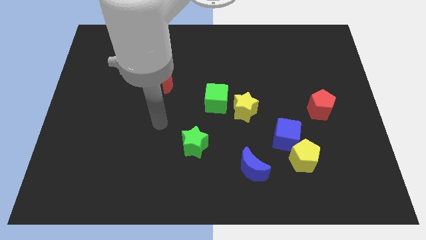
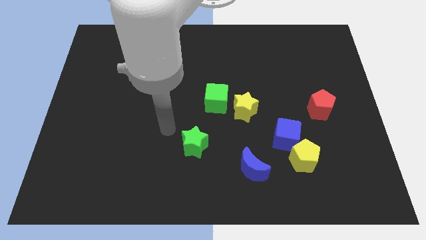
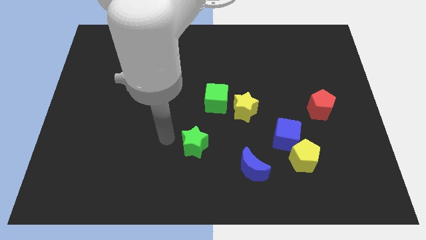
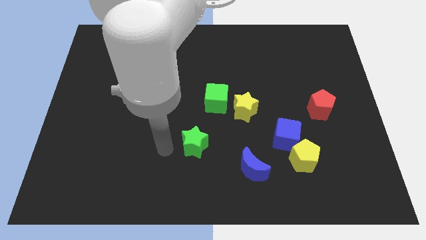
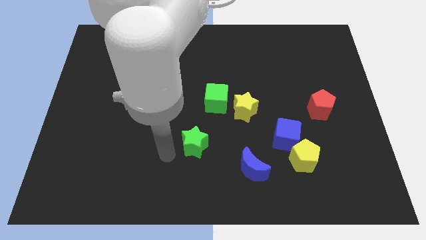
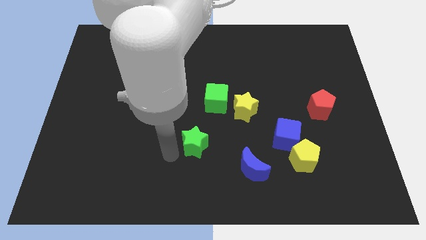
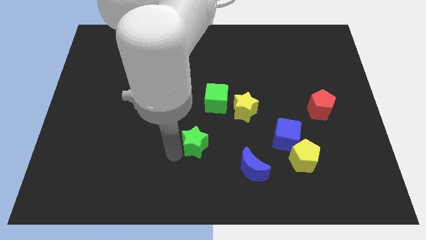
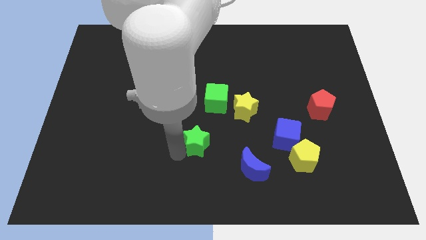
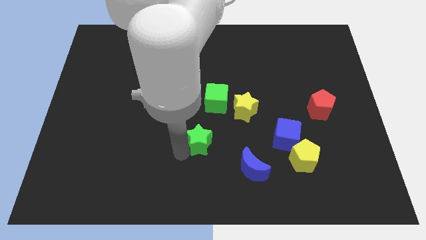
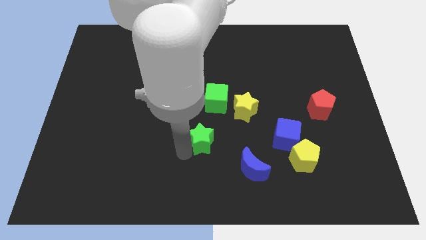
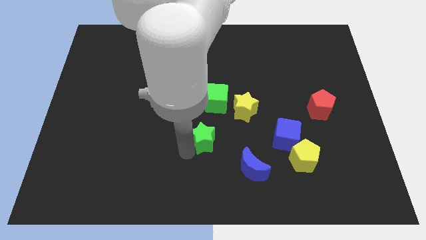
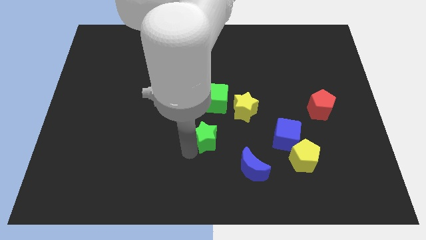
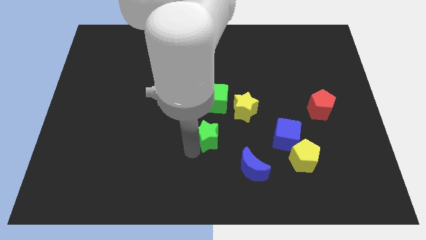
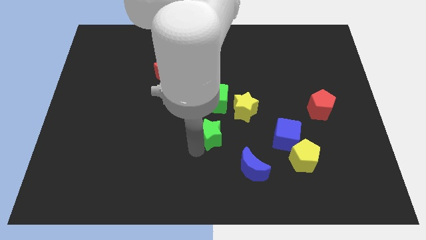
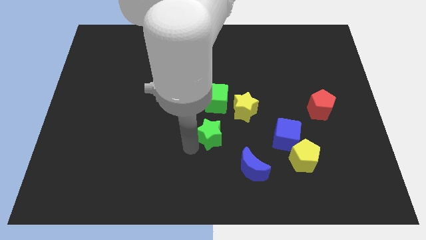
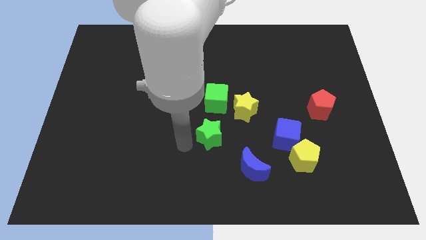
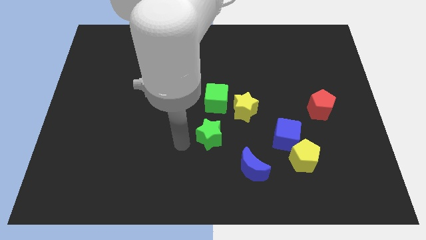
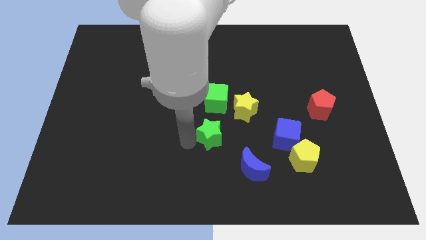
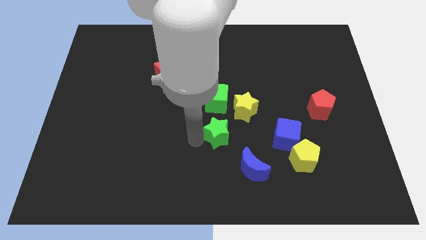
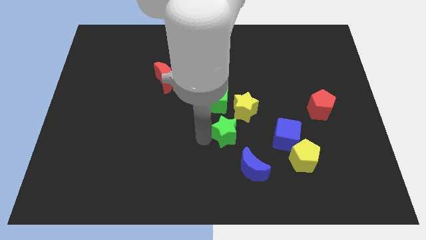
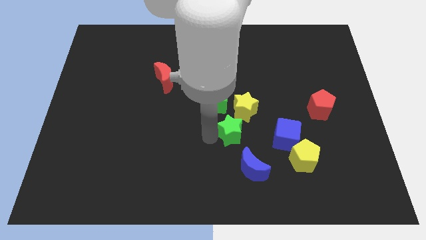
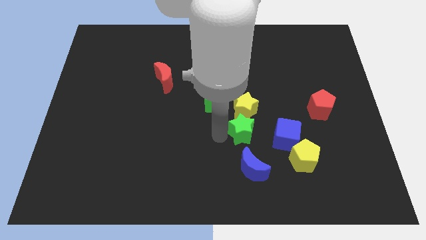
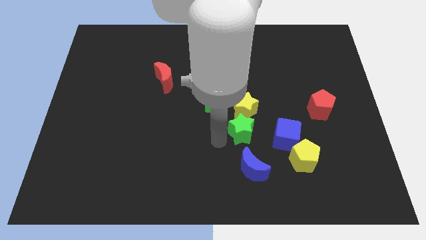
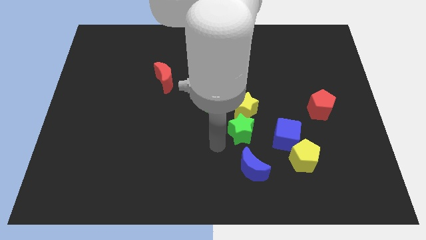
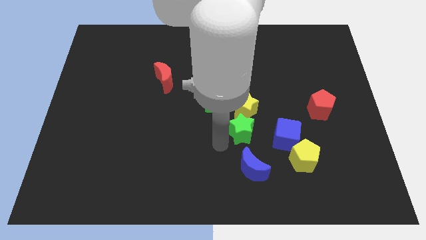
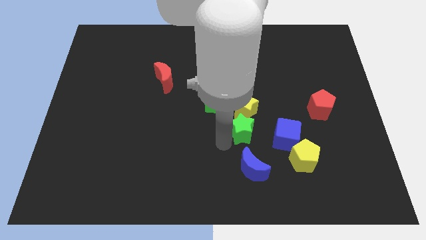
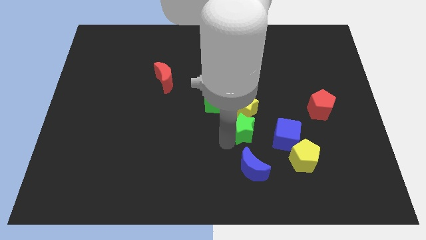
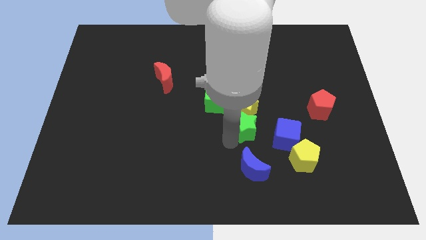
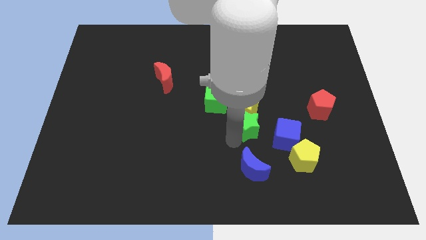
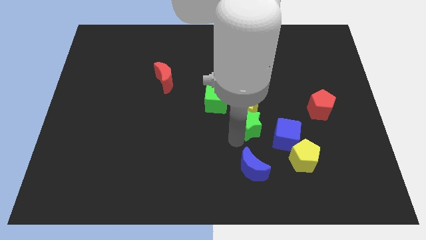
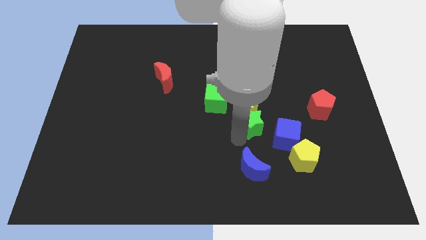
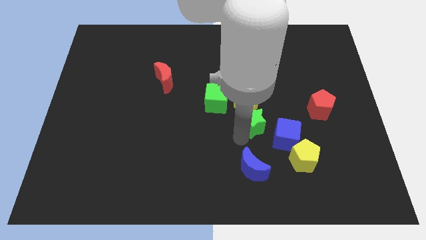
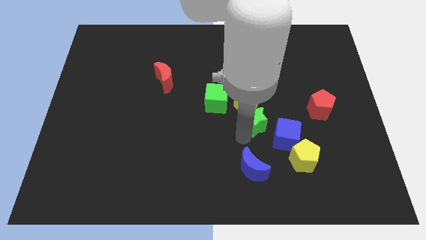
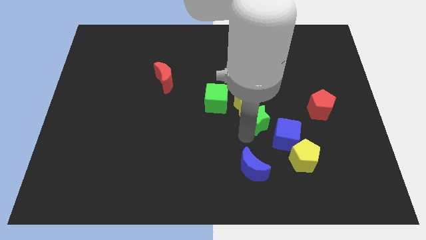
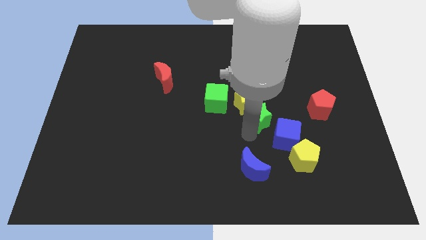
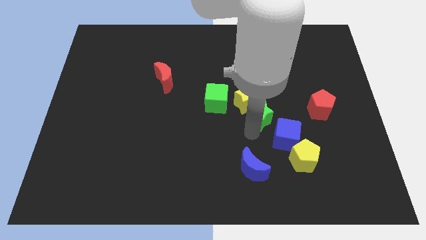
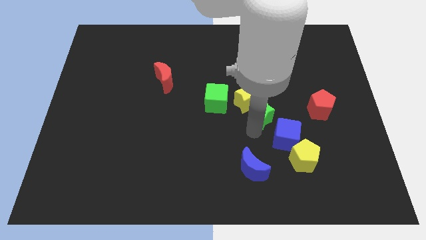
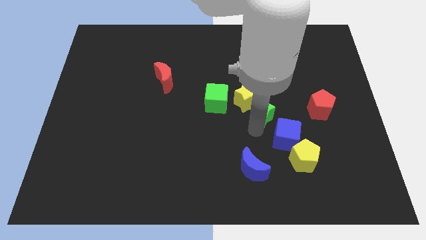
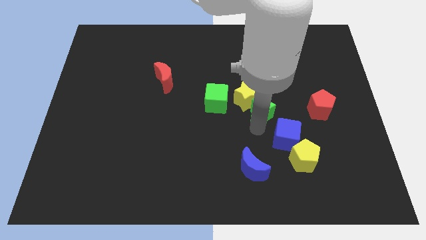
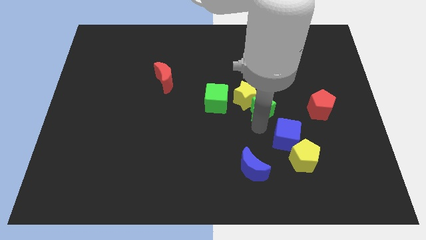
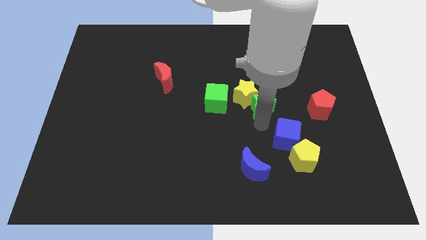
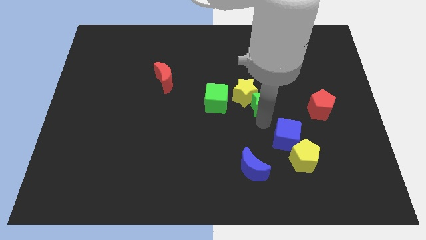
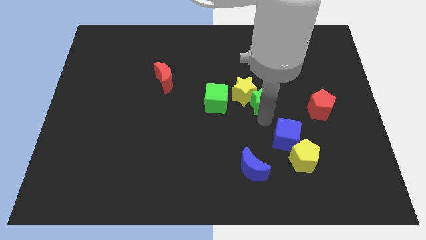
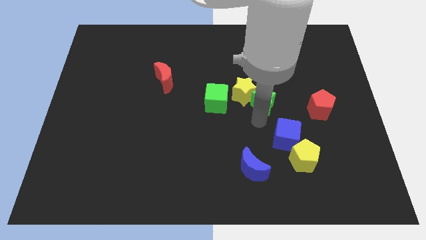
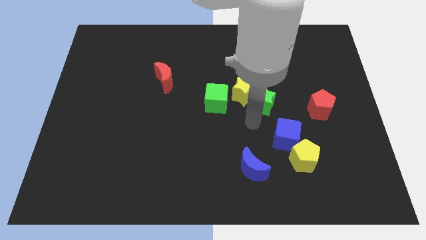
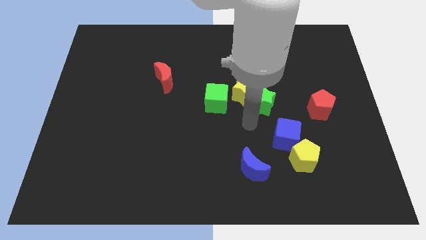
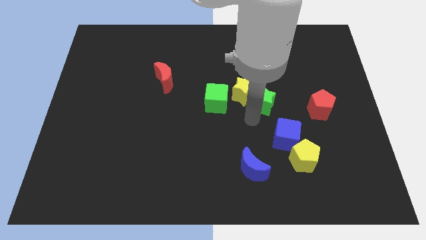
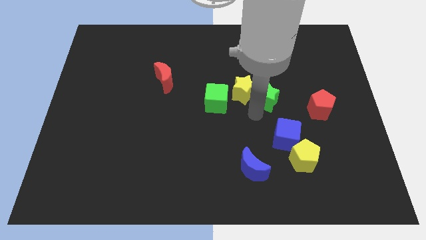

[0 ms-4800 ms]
slide the green star diagonally up and to the right

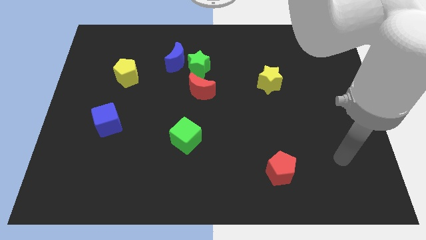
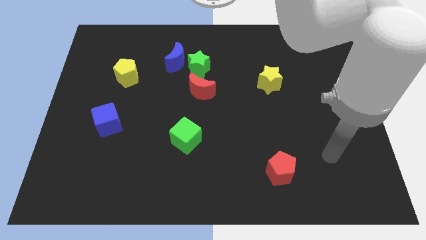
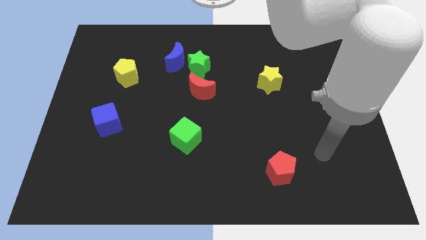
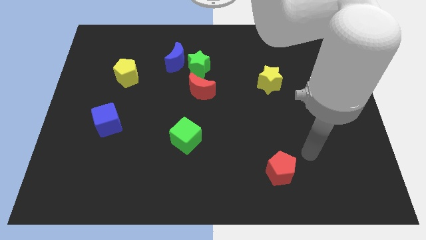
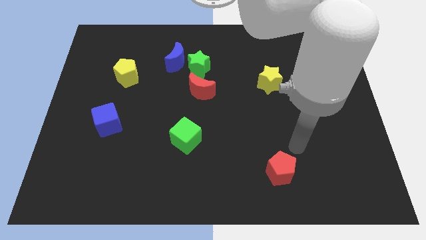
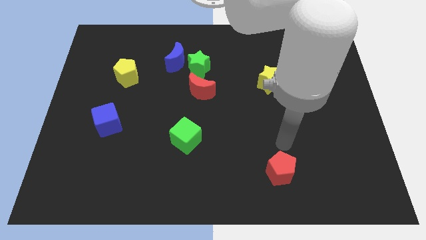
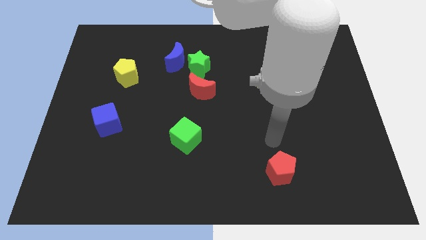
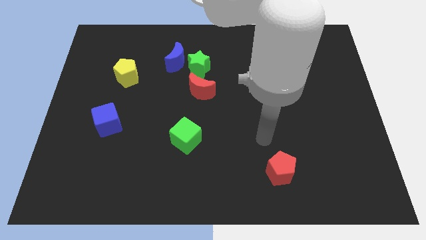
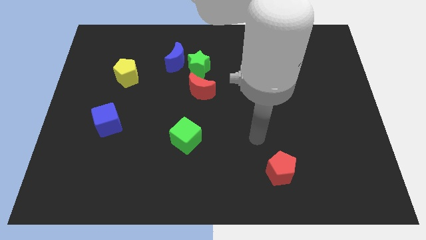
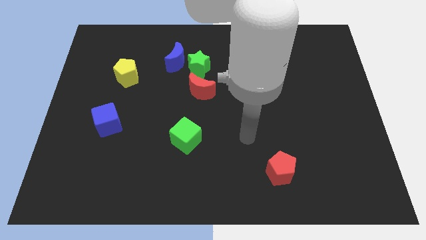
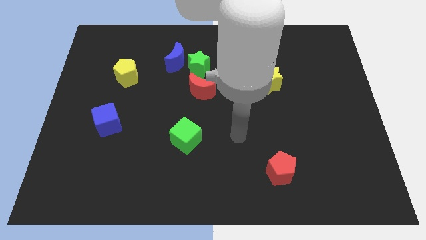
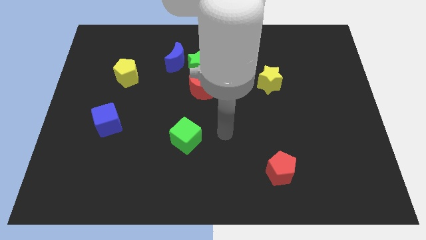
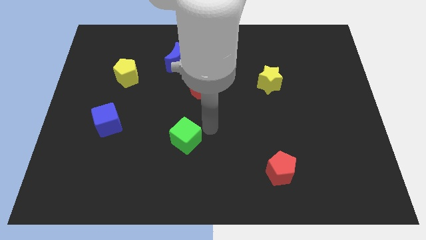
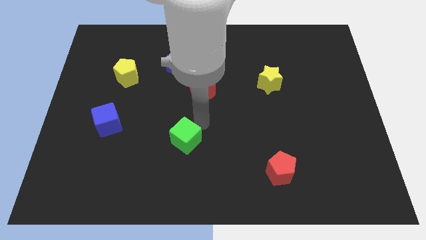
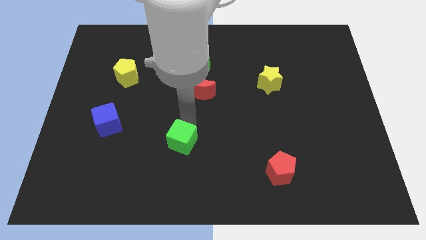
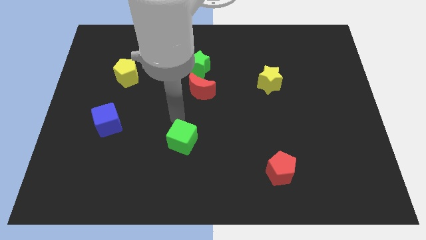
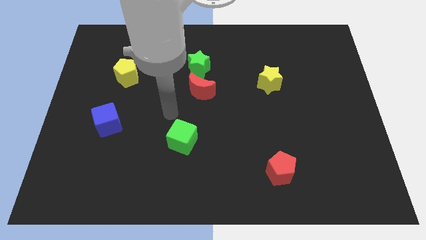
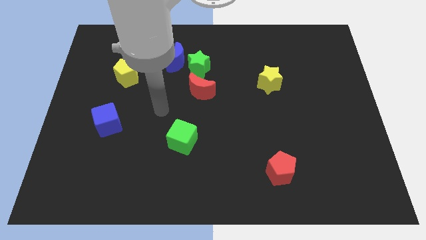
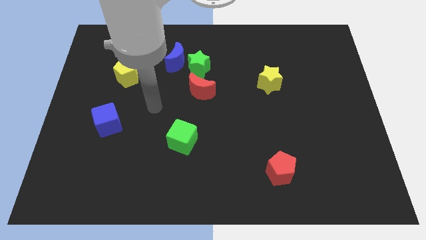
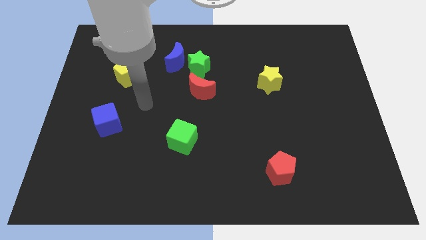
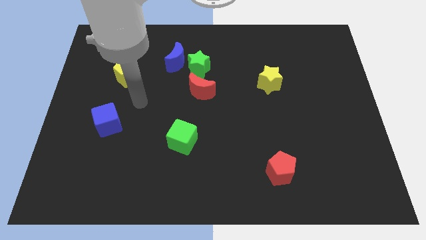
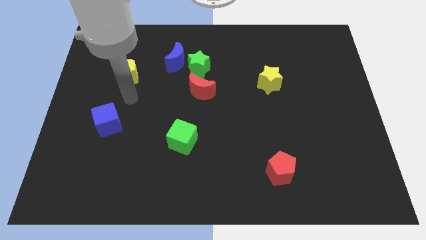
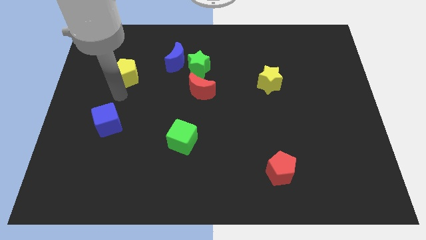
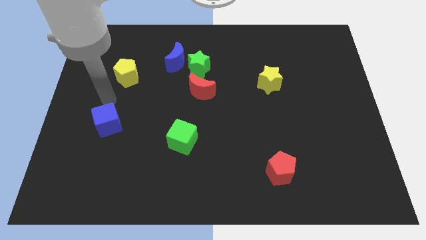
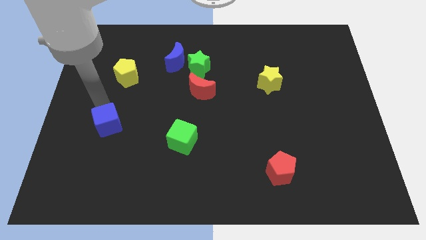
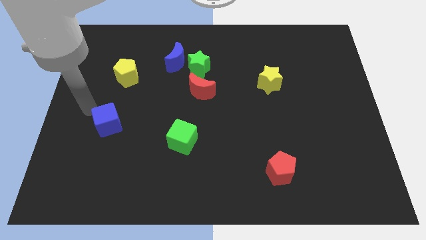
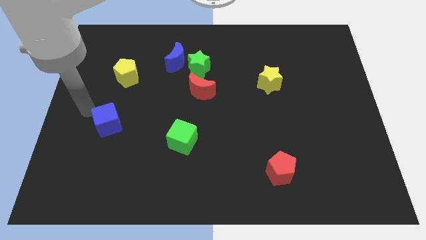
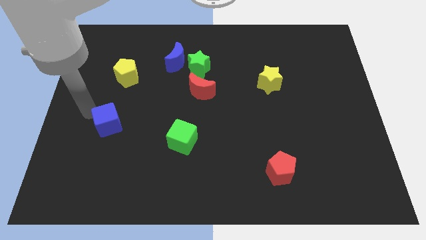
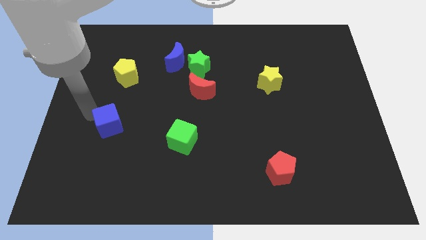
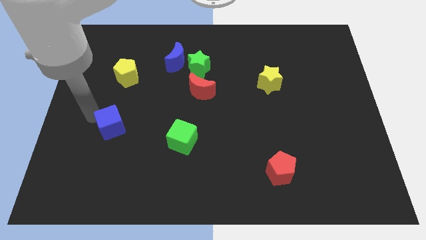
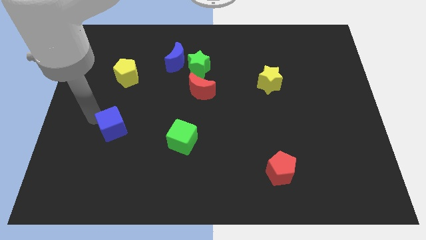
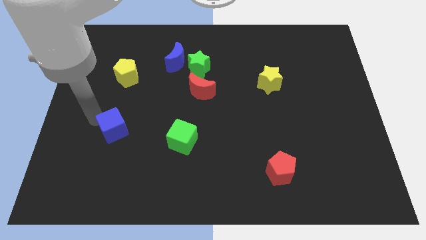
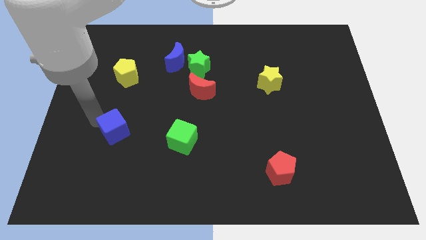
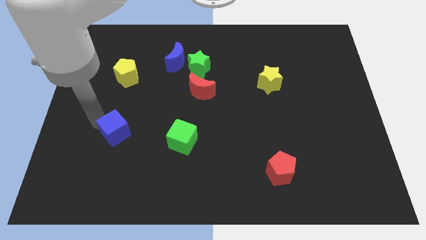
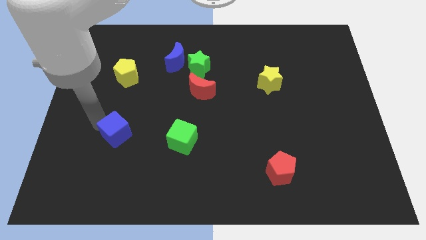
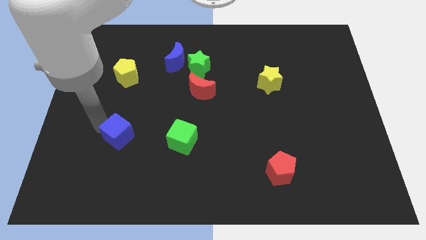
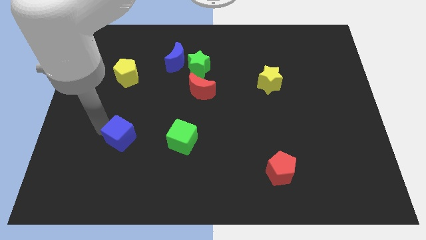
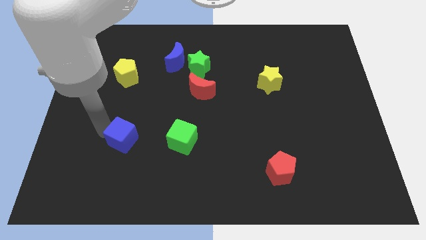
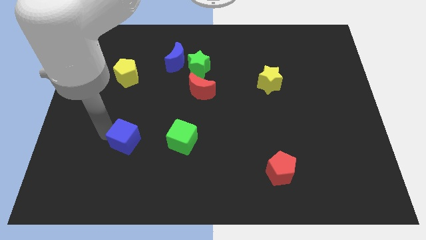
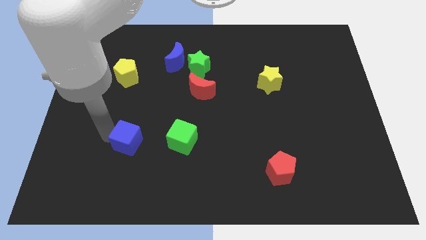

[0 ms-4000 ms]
move the blue cube downwards and to the right a bit
